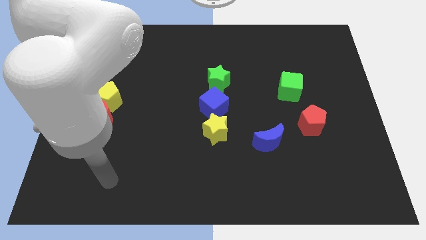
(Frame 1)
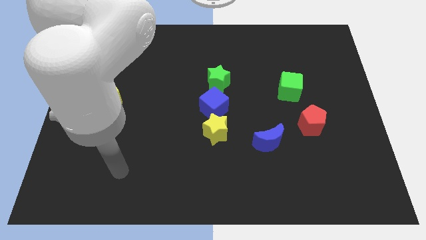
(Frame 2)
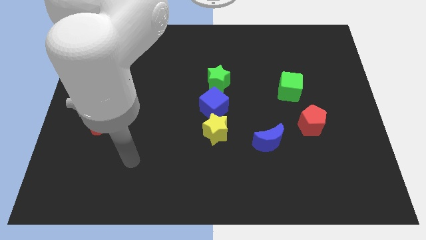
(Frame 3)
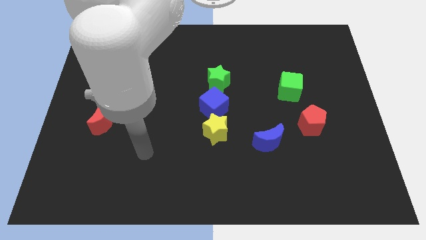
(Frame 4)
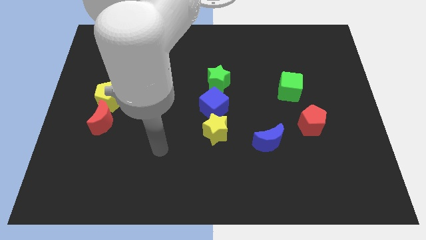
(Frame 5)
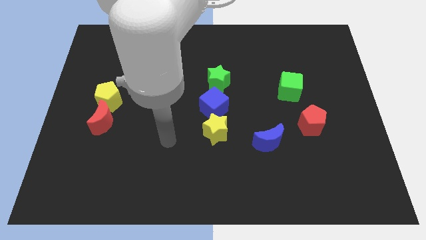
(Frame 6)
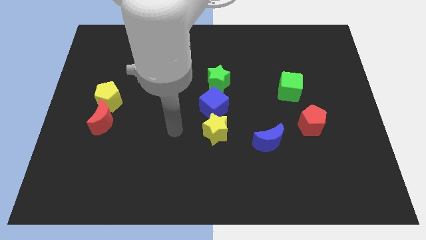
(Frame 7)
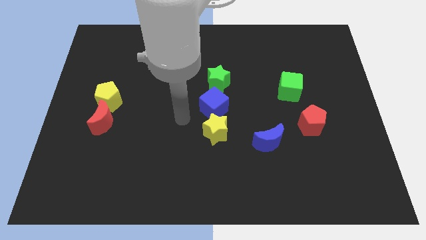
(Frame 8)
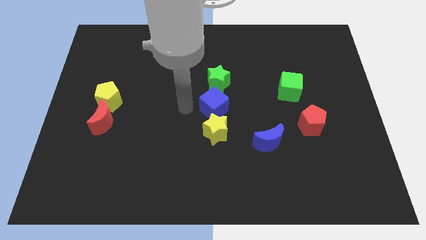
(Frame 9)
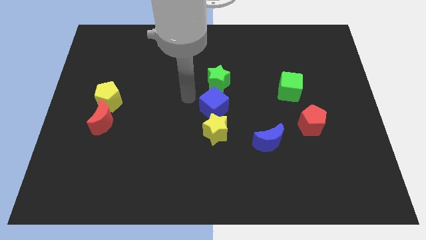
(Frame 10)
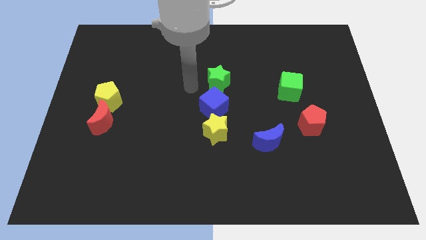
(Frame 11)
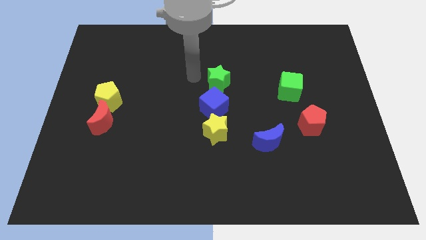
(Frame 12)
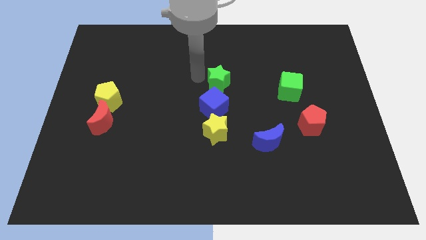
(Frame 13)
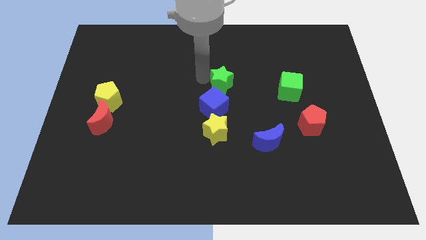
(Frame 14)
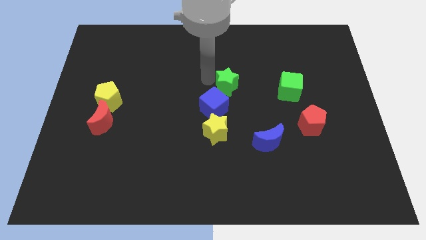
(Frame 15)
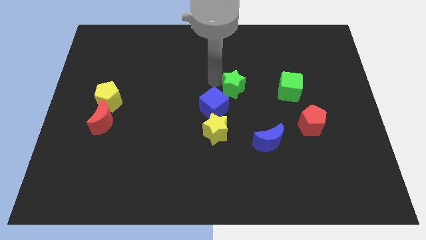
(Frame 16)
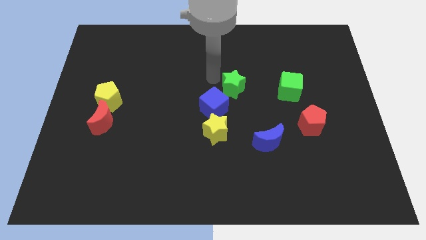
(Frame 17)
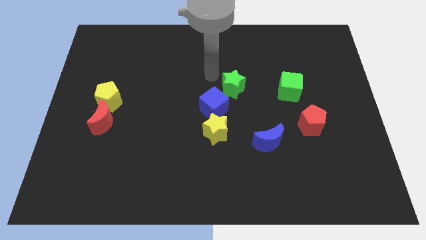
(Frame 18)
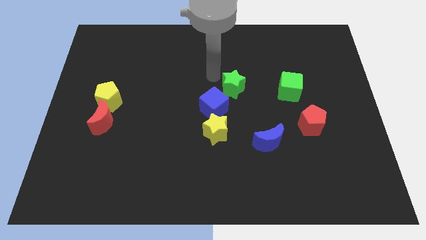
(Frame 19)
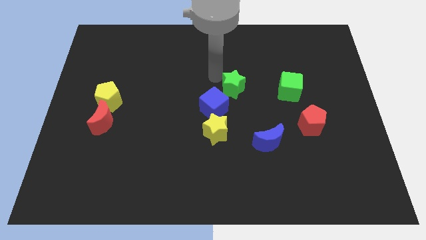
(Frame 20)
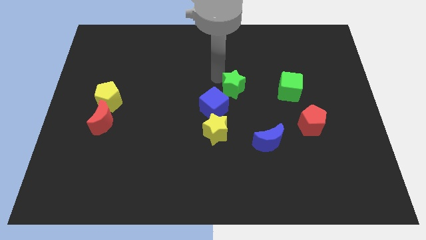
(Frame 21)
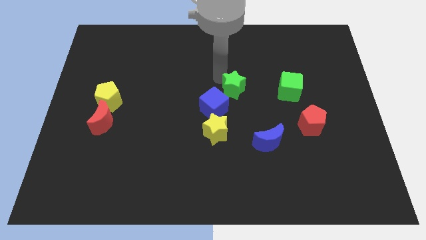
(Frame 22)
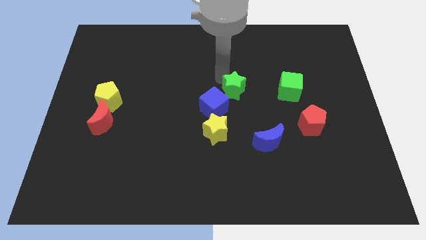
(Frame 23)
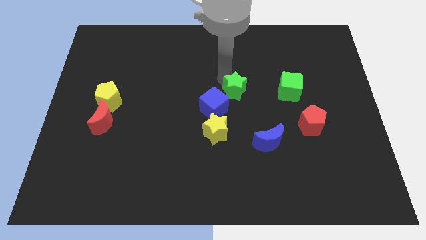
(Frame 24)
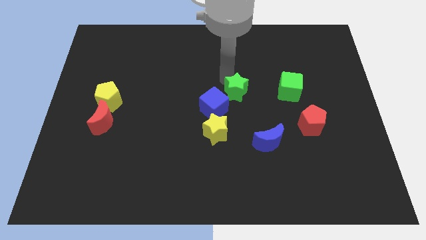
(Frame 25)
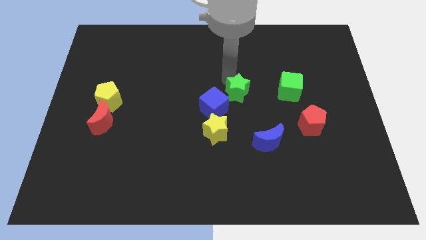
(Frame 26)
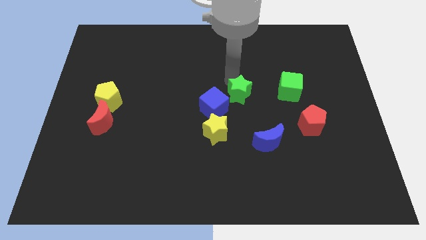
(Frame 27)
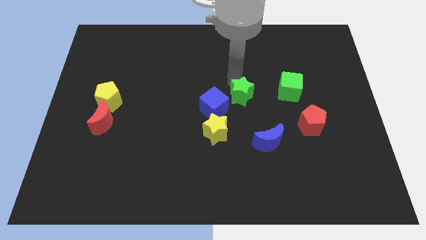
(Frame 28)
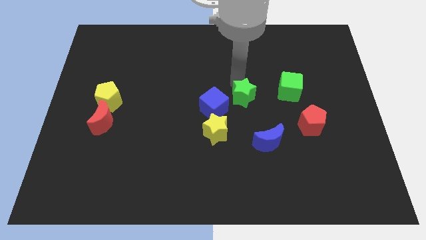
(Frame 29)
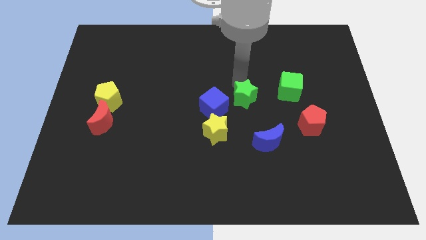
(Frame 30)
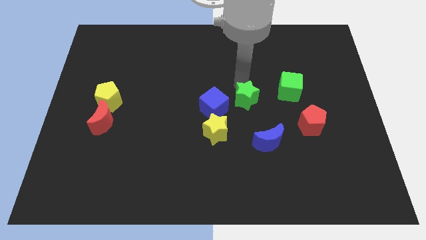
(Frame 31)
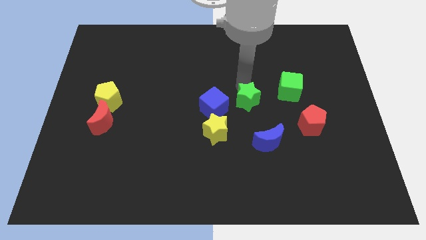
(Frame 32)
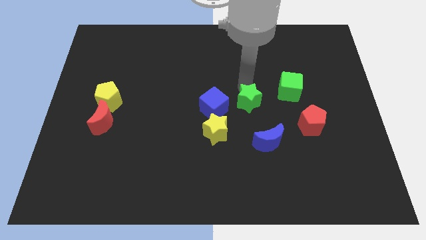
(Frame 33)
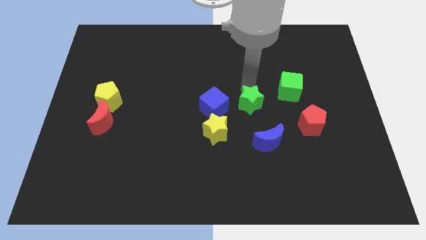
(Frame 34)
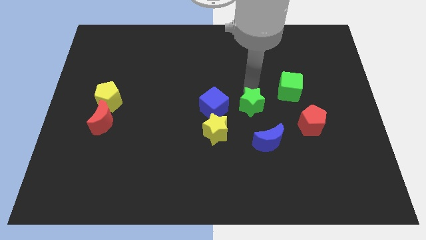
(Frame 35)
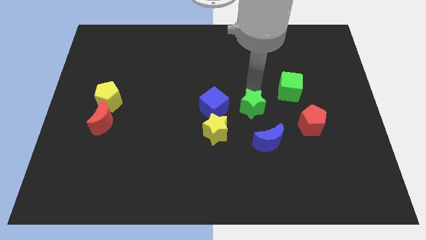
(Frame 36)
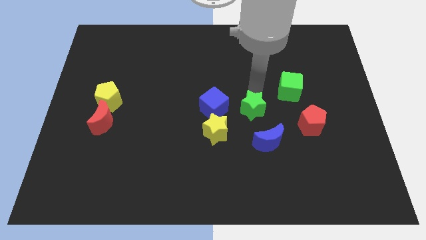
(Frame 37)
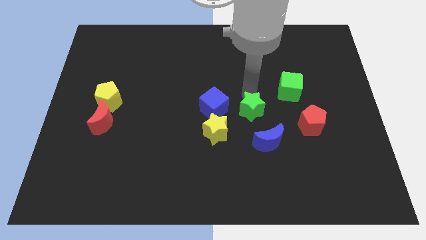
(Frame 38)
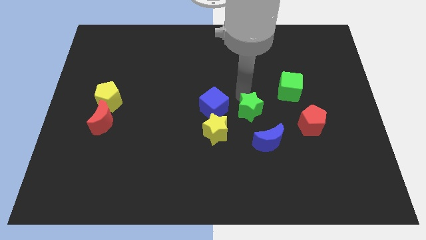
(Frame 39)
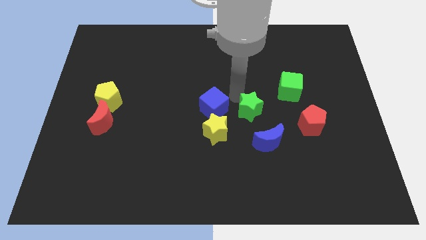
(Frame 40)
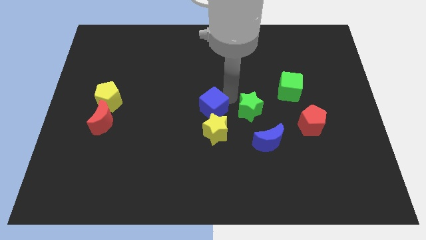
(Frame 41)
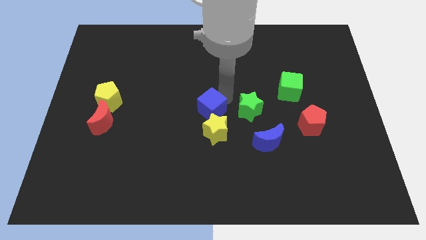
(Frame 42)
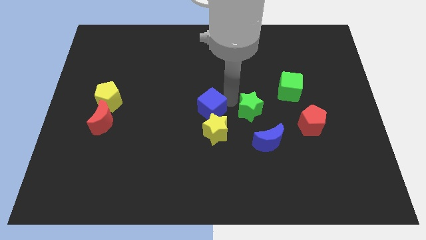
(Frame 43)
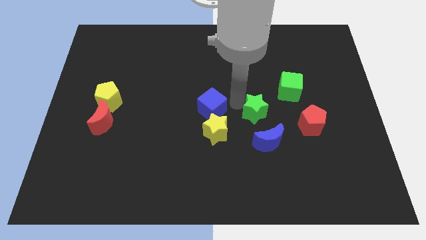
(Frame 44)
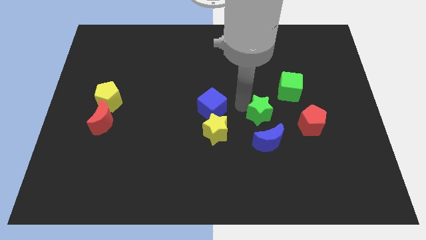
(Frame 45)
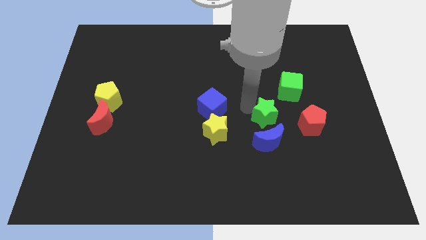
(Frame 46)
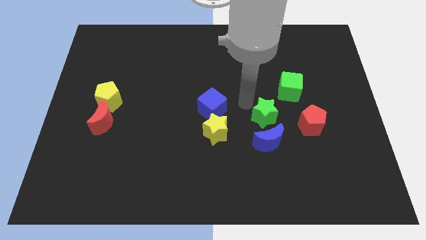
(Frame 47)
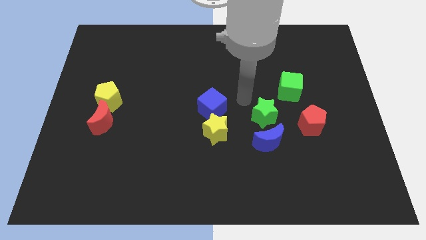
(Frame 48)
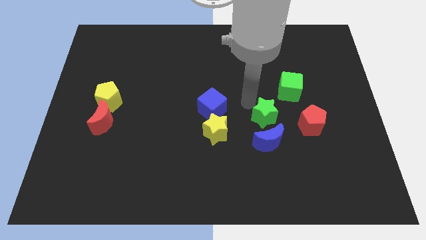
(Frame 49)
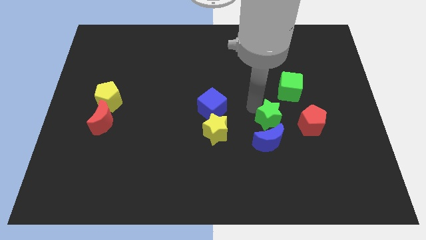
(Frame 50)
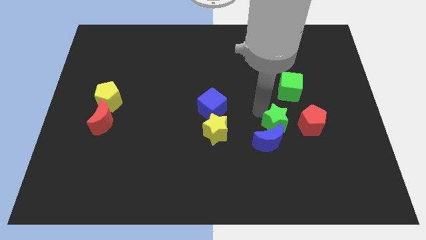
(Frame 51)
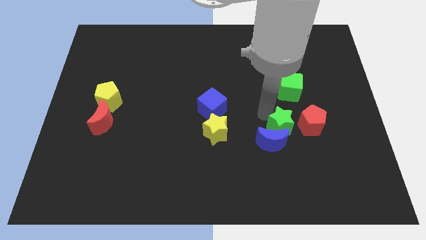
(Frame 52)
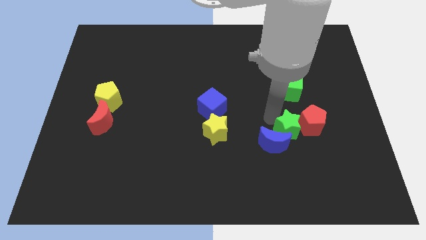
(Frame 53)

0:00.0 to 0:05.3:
move the green star downwards and to the right diagonally

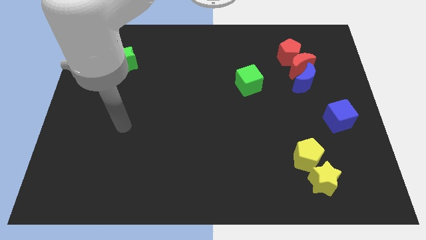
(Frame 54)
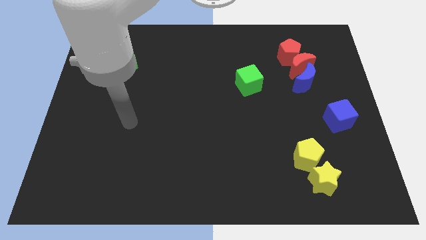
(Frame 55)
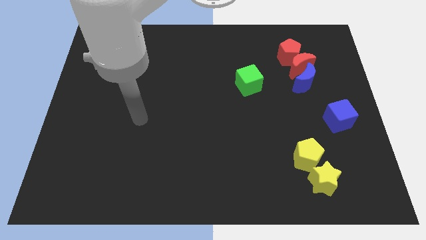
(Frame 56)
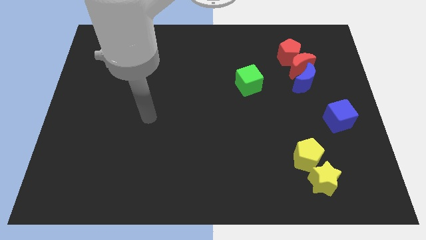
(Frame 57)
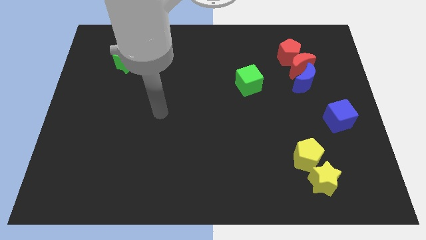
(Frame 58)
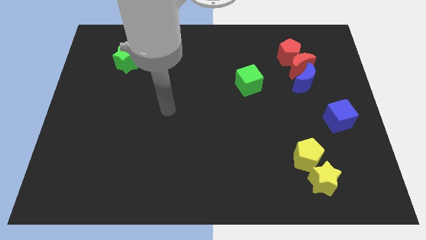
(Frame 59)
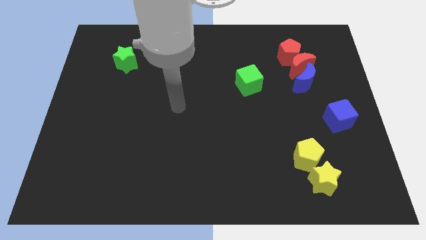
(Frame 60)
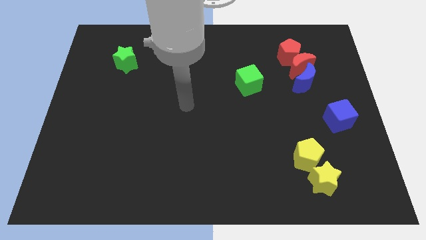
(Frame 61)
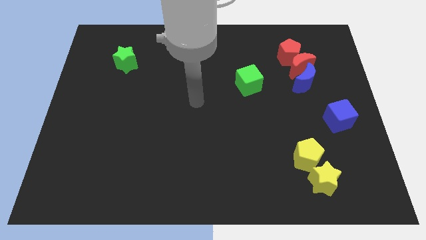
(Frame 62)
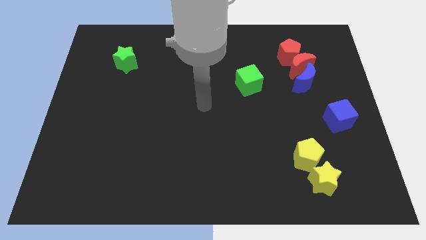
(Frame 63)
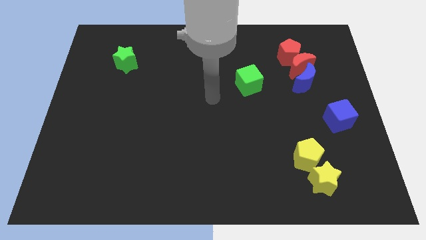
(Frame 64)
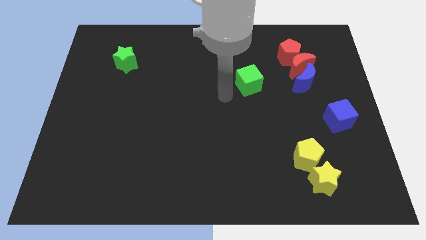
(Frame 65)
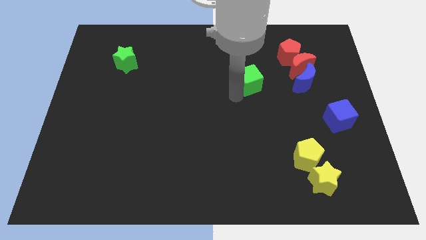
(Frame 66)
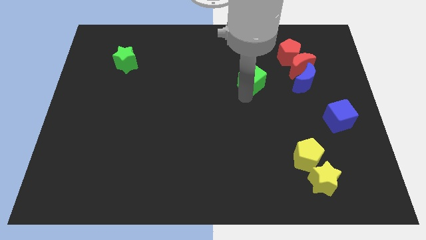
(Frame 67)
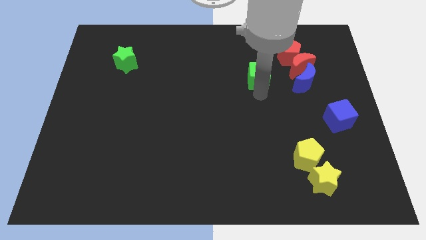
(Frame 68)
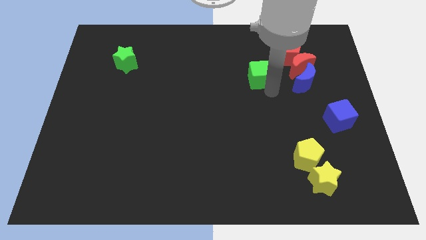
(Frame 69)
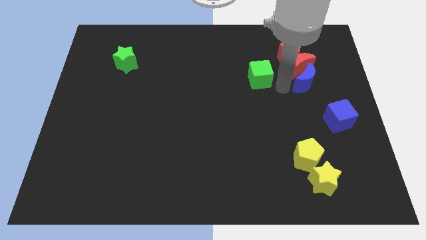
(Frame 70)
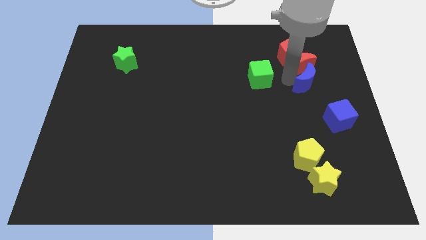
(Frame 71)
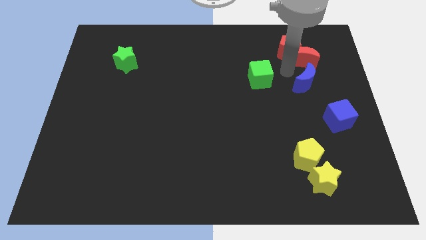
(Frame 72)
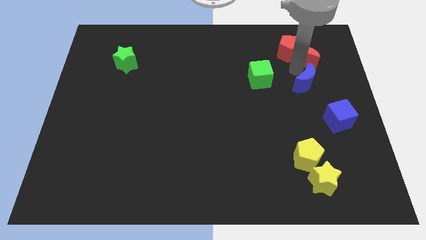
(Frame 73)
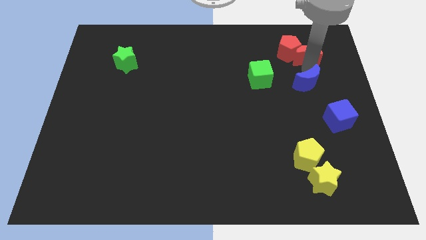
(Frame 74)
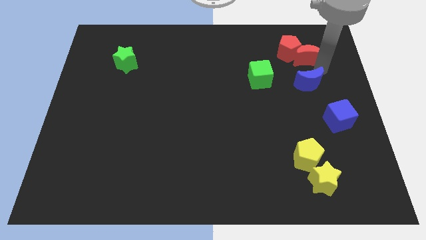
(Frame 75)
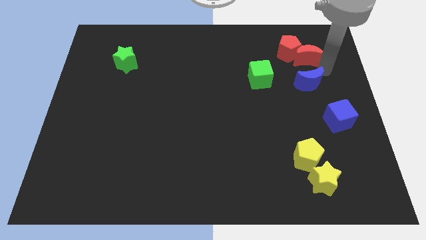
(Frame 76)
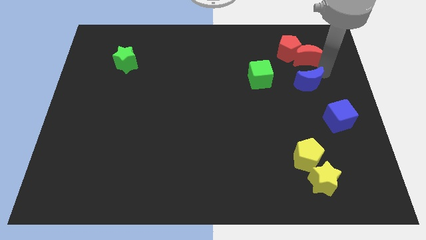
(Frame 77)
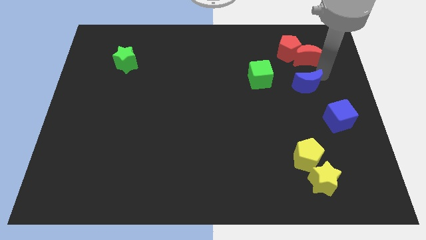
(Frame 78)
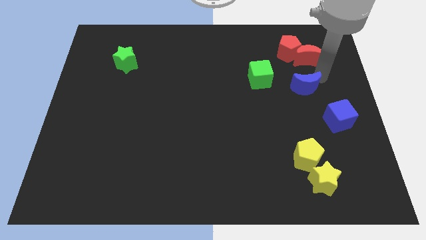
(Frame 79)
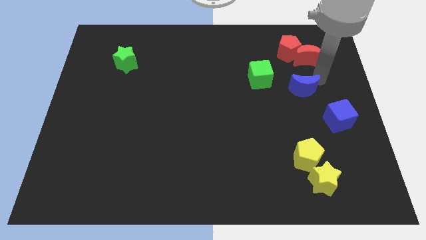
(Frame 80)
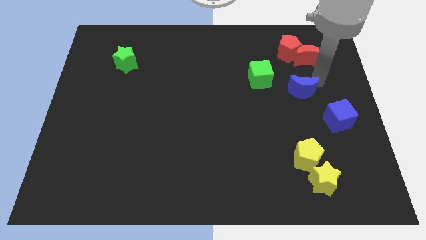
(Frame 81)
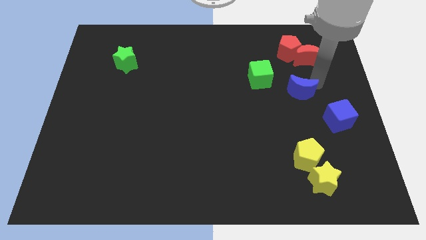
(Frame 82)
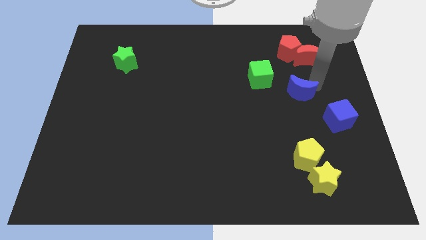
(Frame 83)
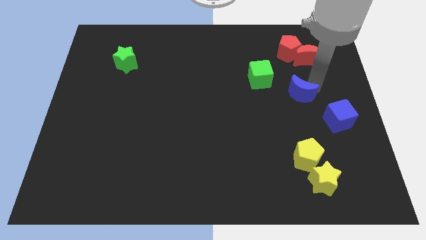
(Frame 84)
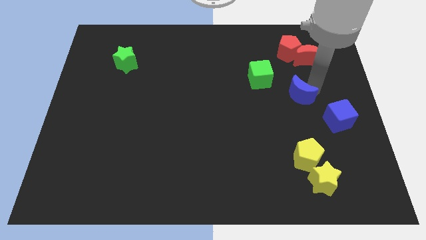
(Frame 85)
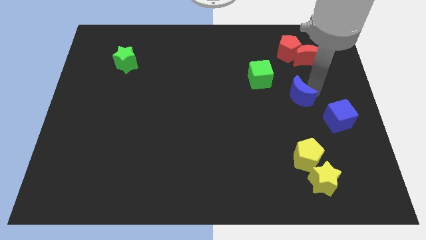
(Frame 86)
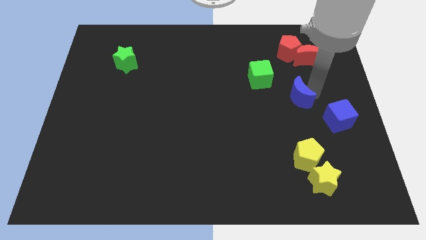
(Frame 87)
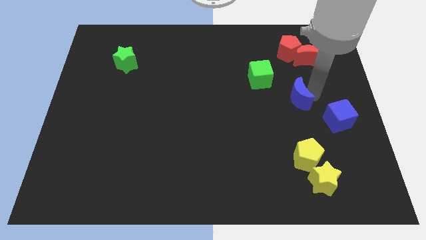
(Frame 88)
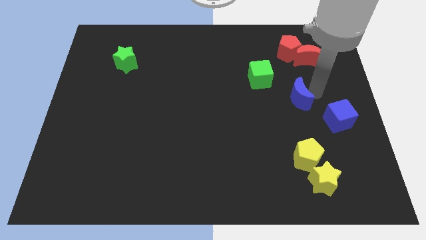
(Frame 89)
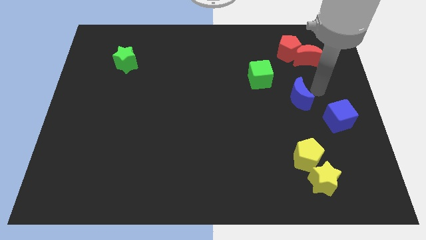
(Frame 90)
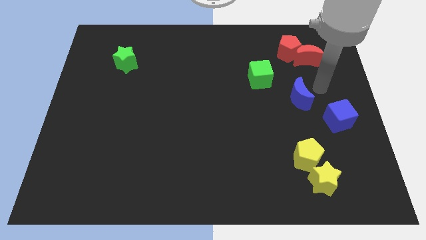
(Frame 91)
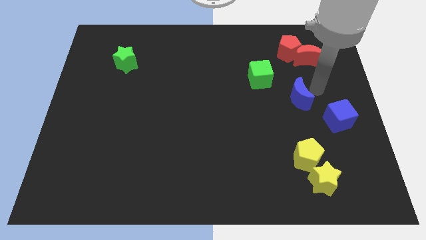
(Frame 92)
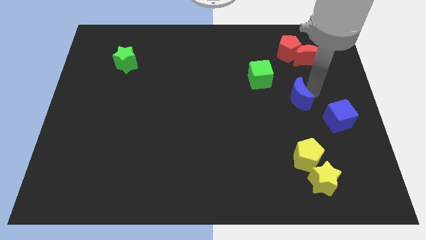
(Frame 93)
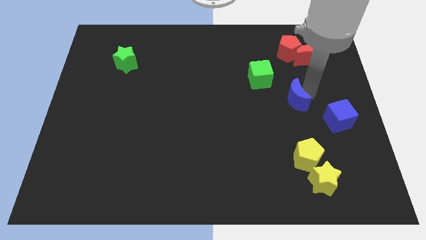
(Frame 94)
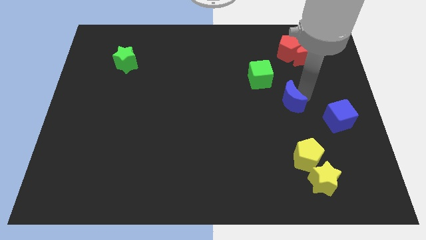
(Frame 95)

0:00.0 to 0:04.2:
move the blue moon somewhat down and then to the left
